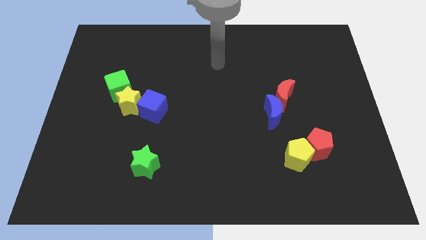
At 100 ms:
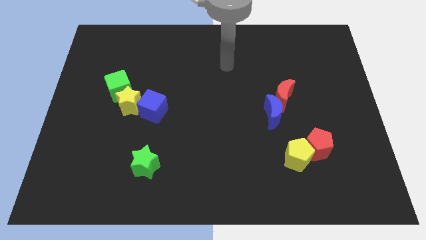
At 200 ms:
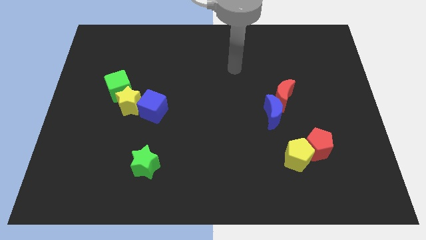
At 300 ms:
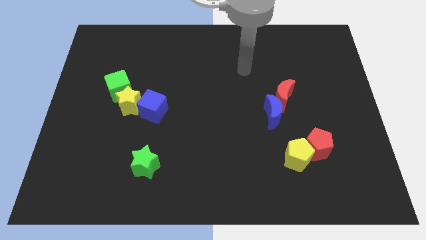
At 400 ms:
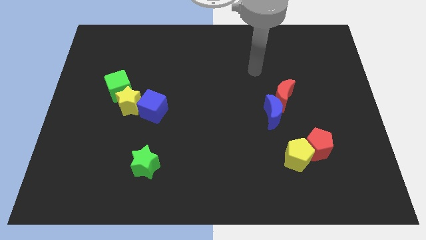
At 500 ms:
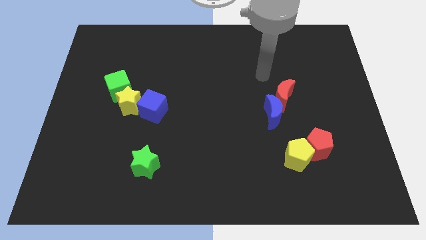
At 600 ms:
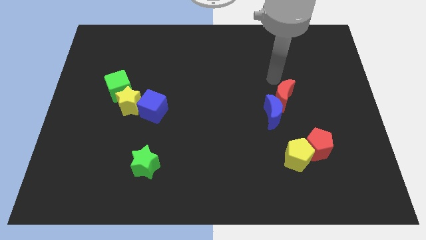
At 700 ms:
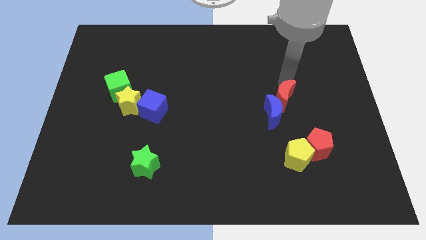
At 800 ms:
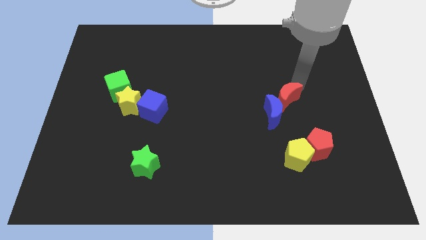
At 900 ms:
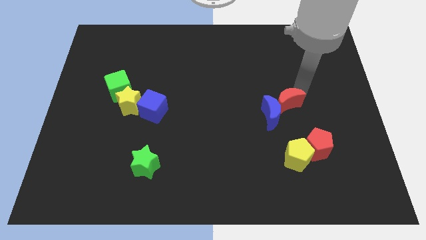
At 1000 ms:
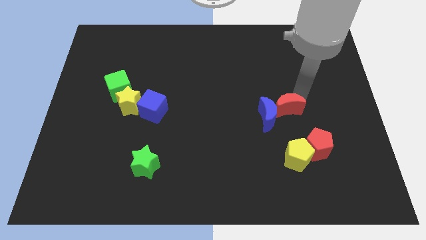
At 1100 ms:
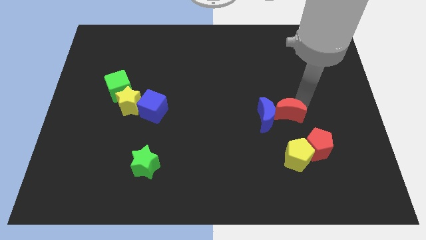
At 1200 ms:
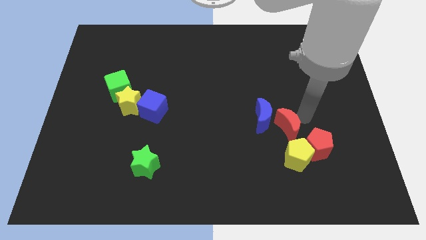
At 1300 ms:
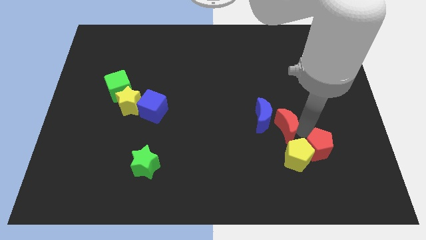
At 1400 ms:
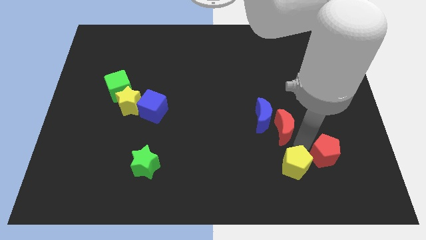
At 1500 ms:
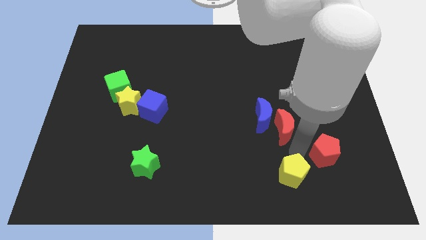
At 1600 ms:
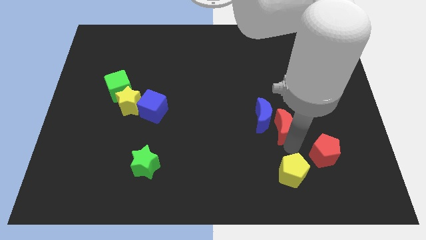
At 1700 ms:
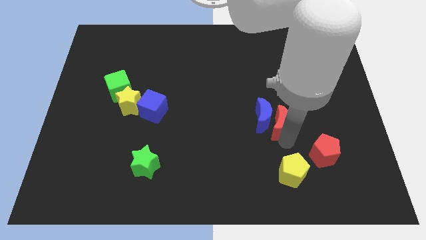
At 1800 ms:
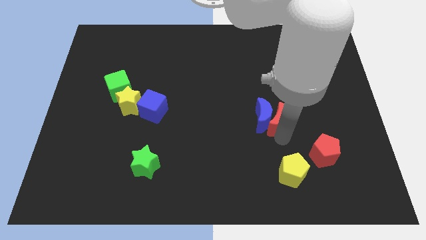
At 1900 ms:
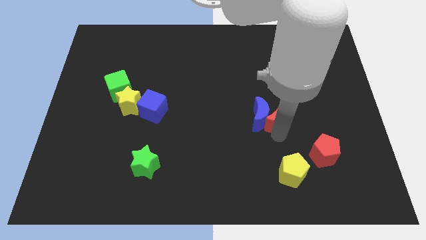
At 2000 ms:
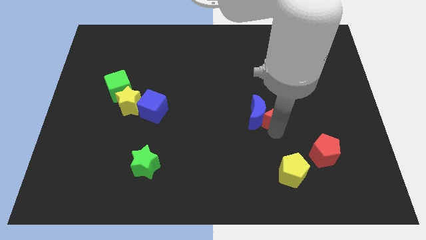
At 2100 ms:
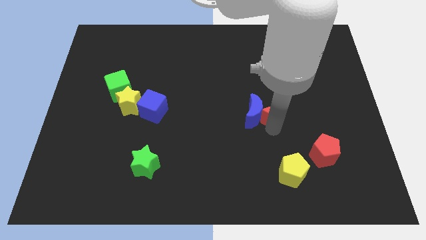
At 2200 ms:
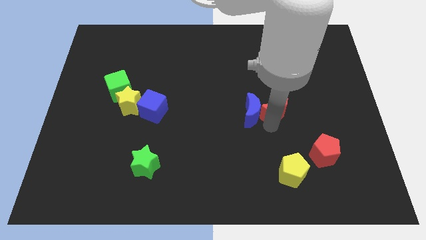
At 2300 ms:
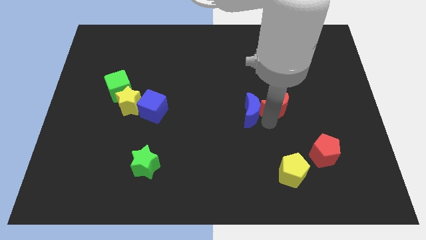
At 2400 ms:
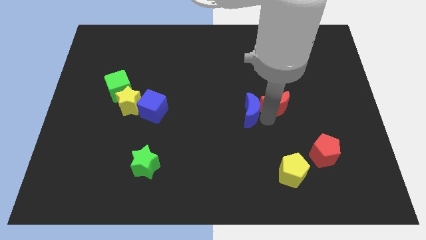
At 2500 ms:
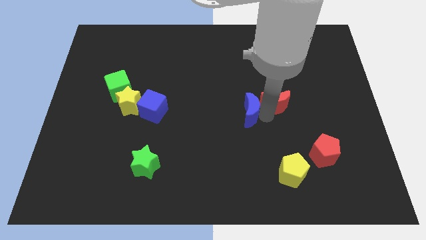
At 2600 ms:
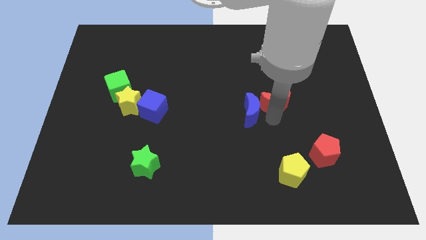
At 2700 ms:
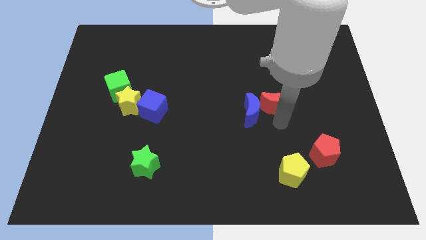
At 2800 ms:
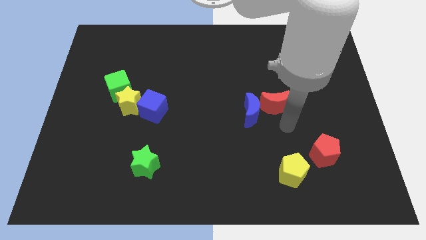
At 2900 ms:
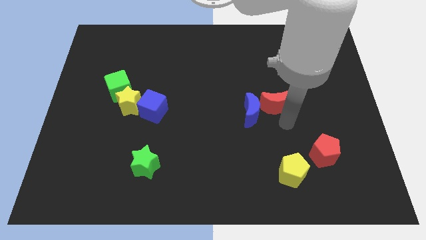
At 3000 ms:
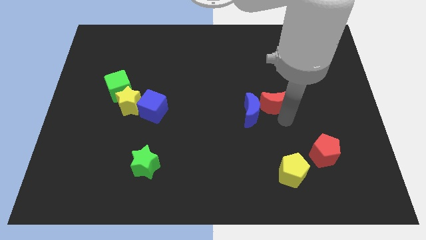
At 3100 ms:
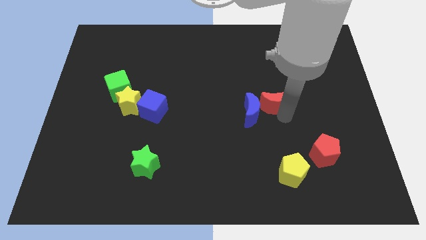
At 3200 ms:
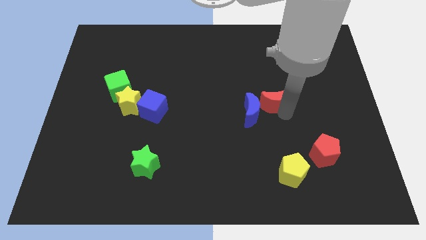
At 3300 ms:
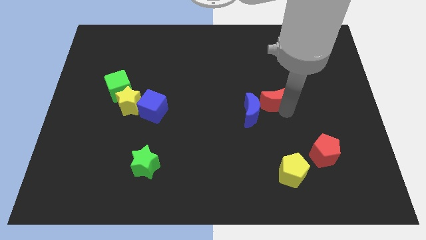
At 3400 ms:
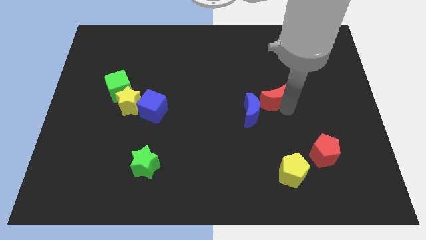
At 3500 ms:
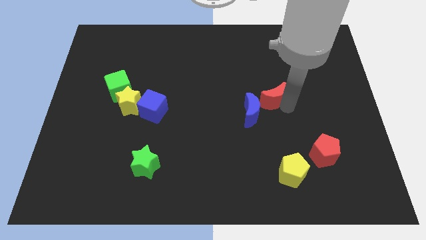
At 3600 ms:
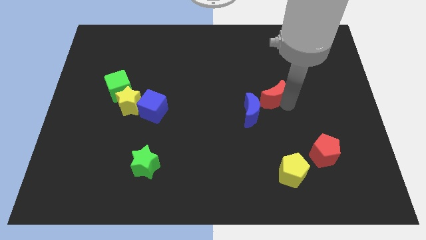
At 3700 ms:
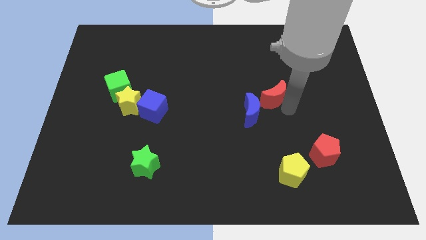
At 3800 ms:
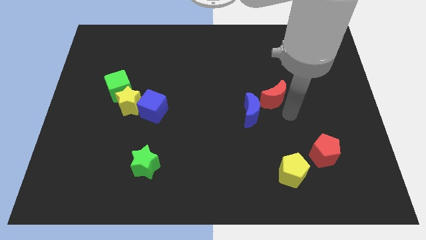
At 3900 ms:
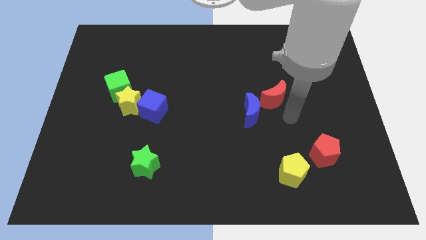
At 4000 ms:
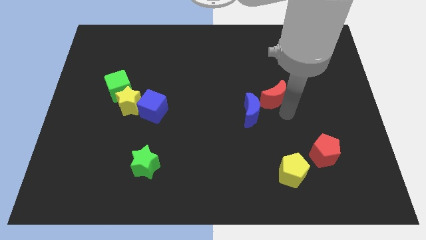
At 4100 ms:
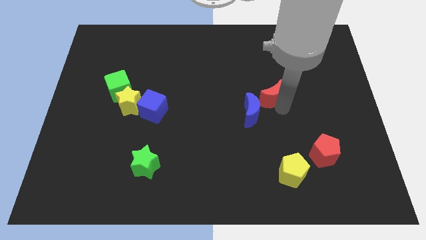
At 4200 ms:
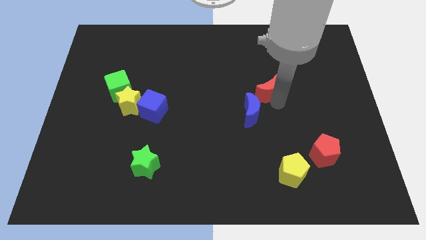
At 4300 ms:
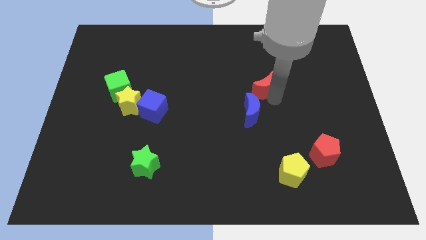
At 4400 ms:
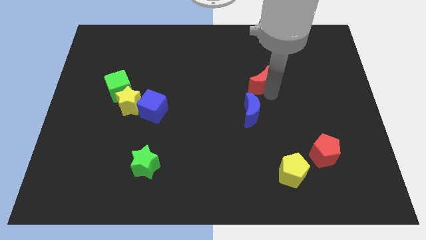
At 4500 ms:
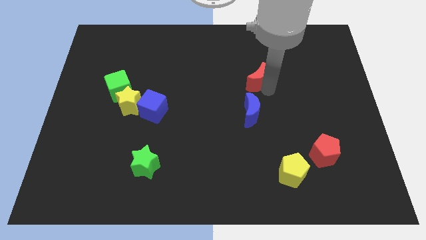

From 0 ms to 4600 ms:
slightly push the red moon upwards and to the left diagonally

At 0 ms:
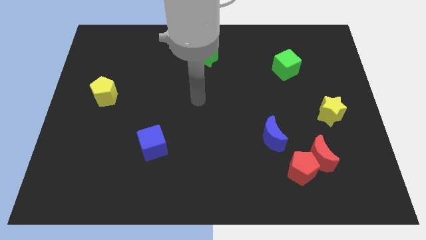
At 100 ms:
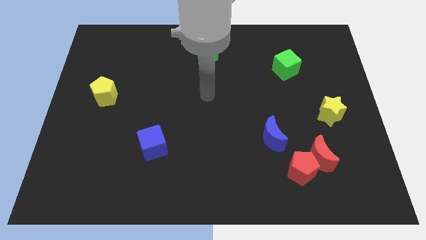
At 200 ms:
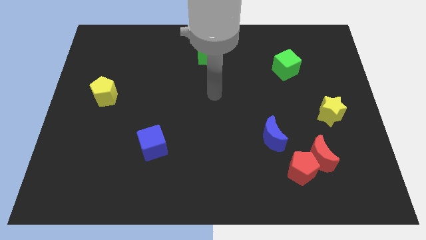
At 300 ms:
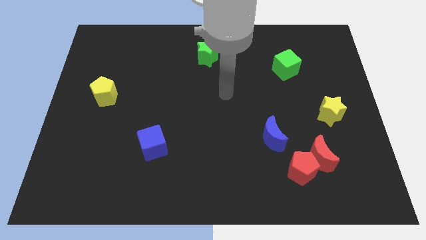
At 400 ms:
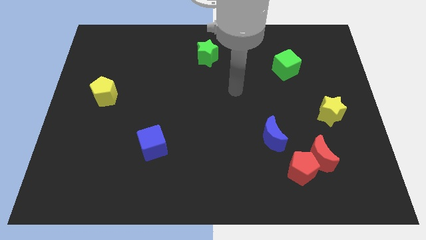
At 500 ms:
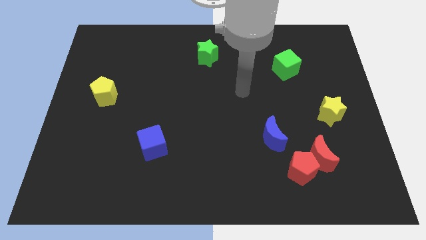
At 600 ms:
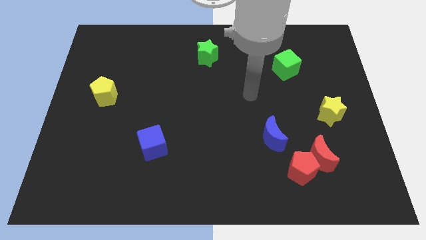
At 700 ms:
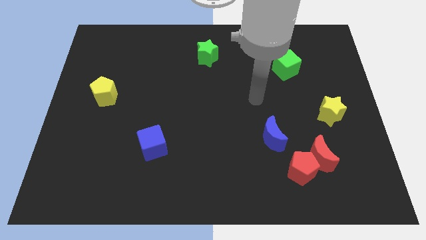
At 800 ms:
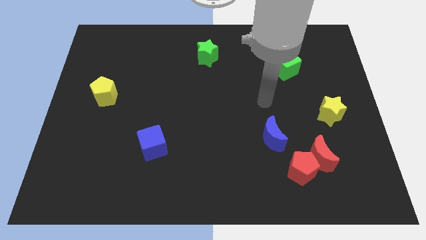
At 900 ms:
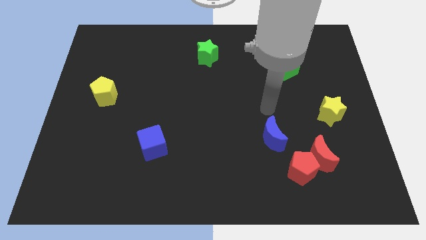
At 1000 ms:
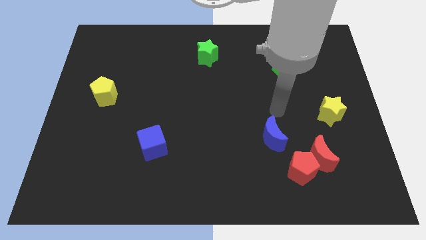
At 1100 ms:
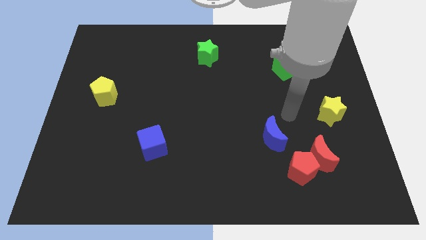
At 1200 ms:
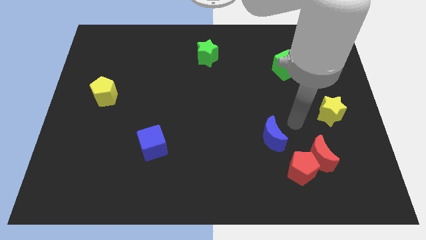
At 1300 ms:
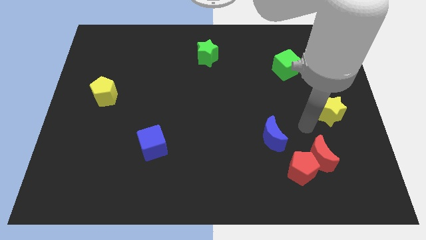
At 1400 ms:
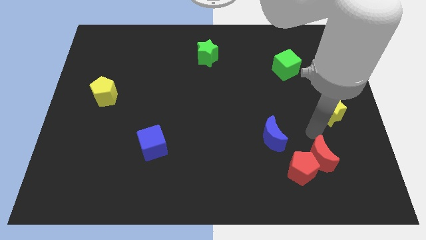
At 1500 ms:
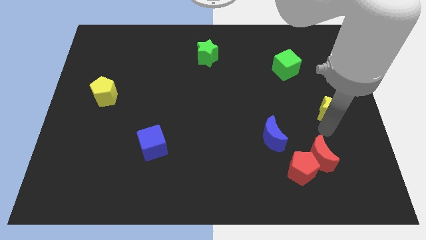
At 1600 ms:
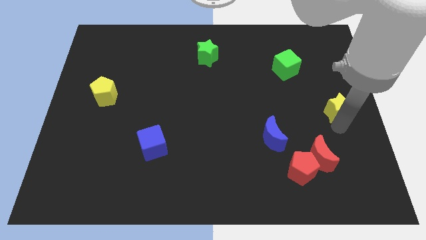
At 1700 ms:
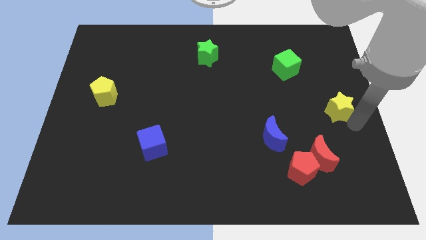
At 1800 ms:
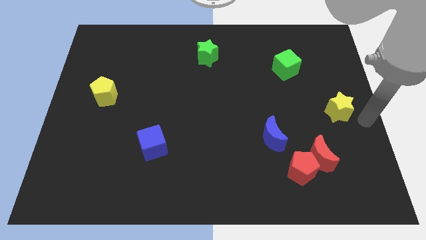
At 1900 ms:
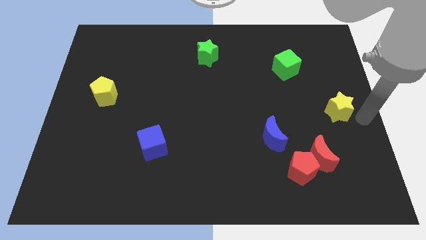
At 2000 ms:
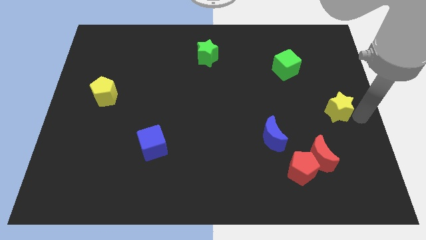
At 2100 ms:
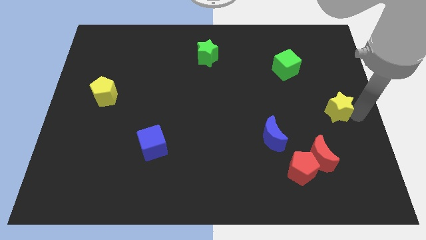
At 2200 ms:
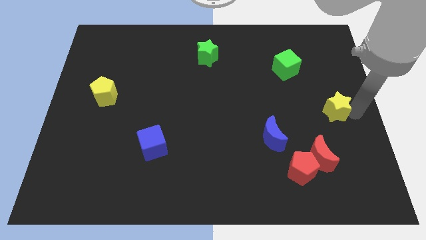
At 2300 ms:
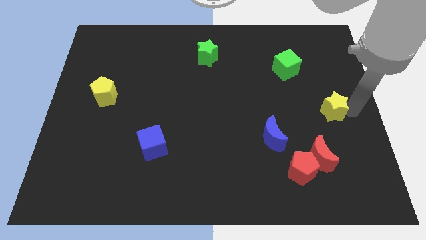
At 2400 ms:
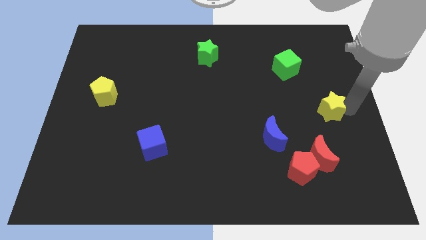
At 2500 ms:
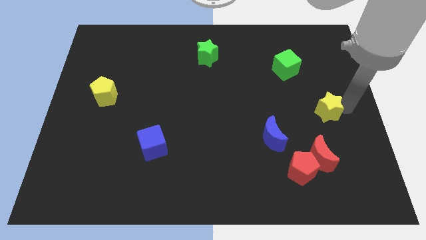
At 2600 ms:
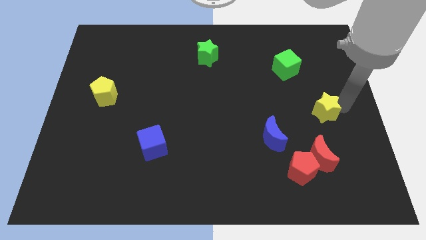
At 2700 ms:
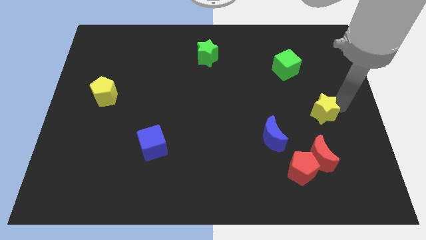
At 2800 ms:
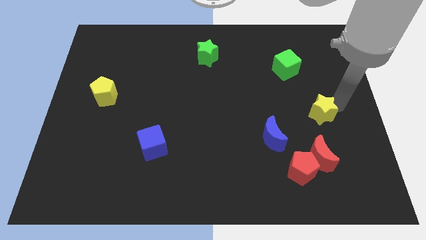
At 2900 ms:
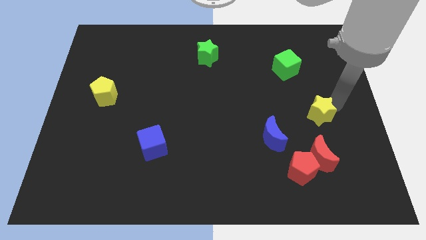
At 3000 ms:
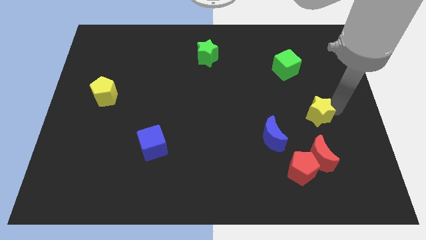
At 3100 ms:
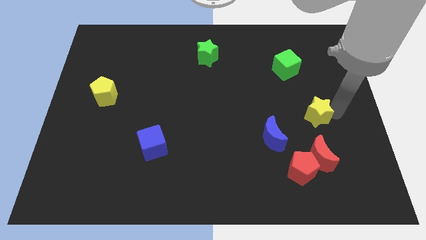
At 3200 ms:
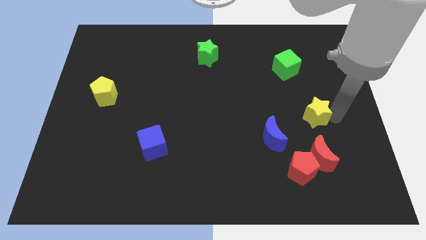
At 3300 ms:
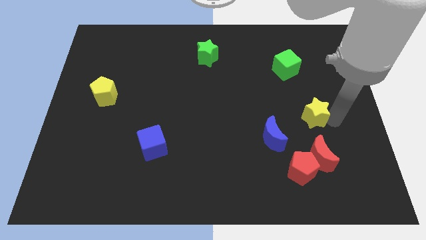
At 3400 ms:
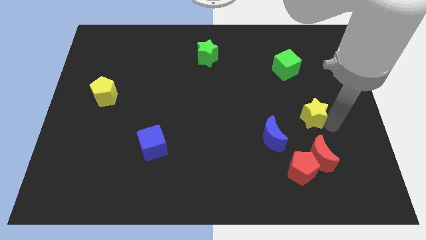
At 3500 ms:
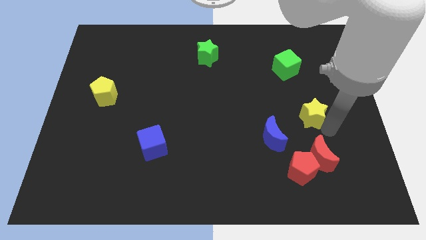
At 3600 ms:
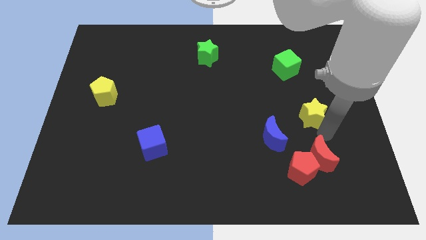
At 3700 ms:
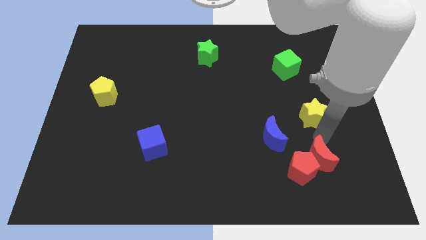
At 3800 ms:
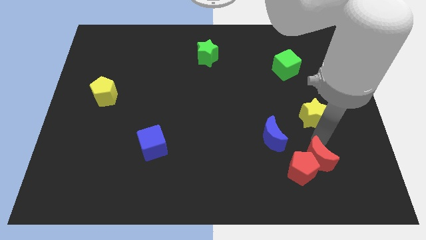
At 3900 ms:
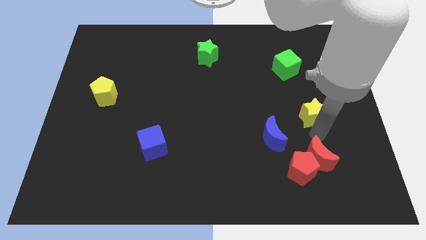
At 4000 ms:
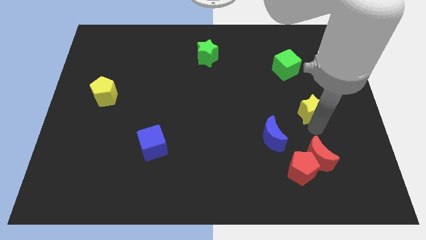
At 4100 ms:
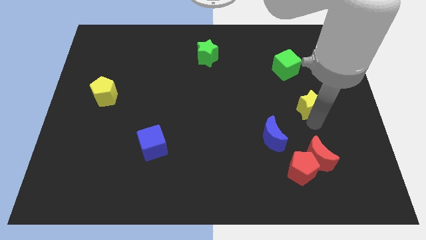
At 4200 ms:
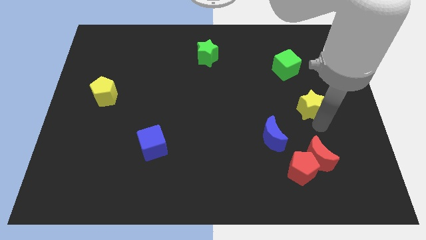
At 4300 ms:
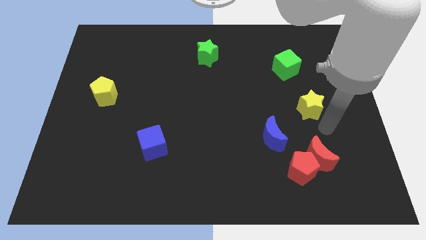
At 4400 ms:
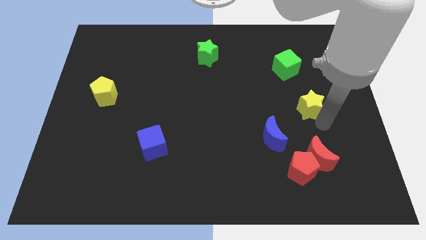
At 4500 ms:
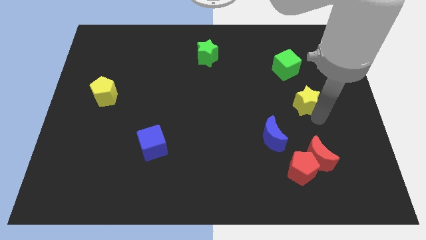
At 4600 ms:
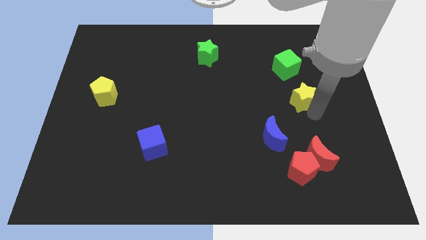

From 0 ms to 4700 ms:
slightly move the yellow star up and to the left
